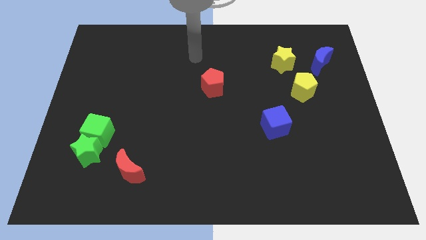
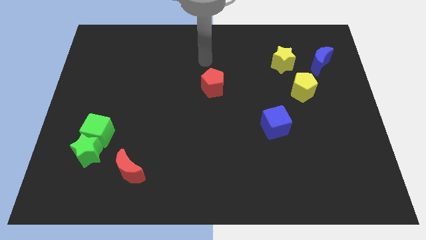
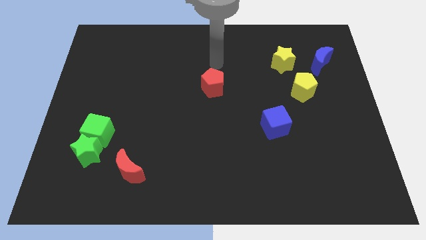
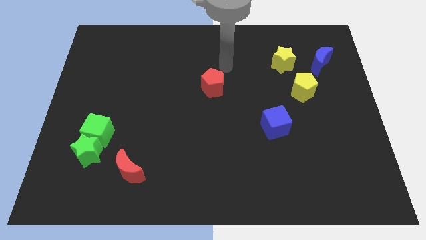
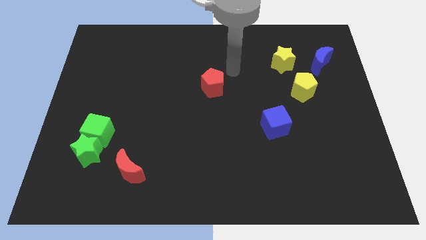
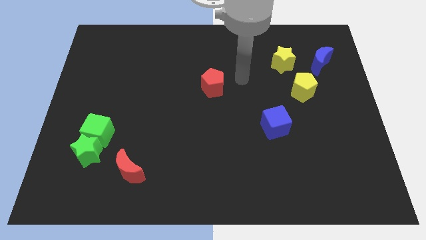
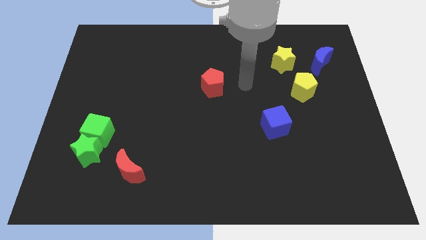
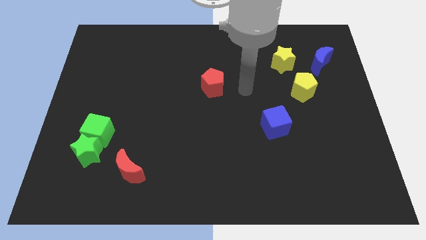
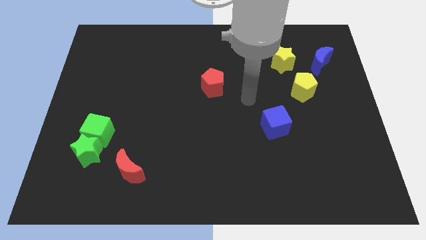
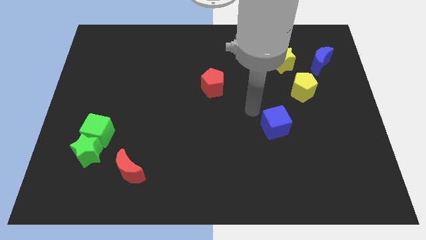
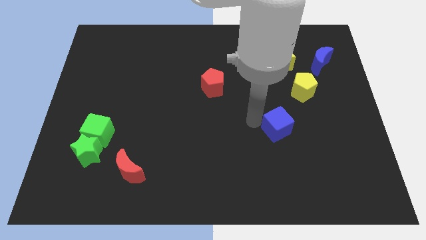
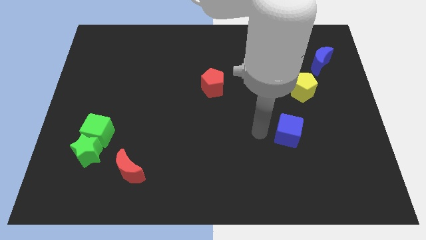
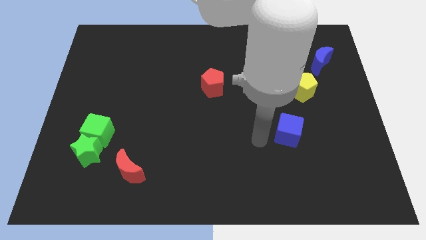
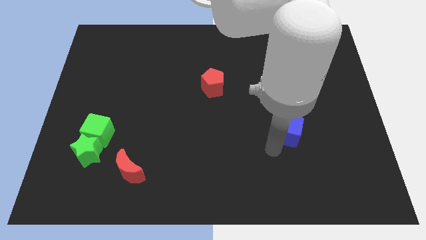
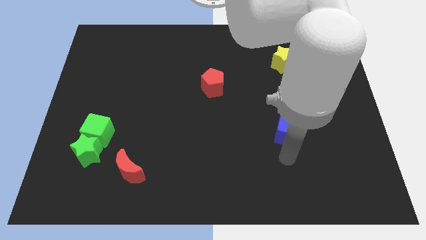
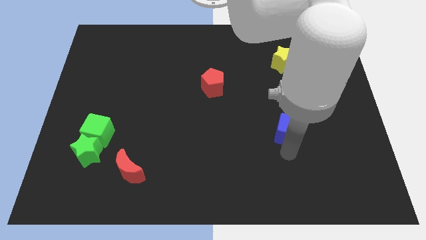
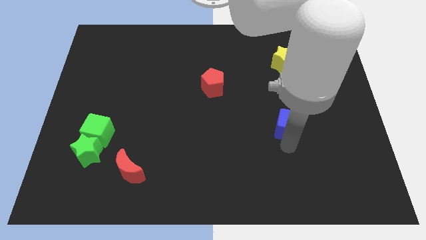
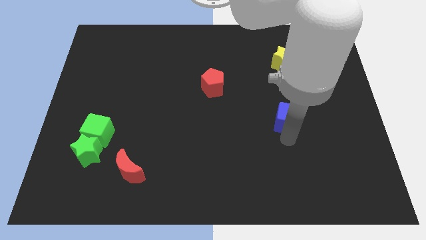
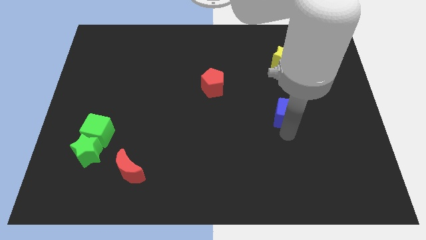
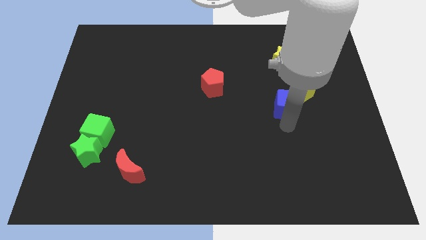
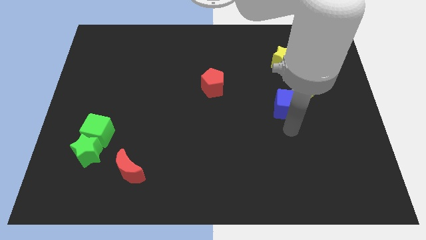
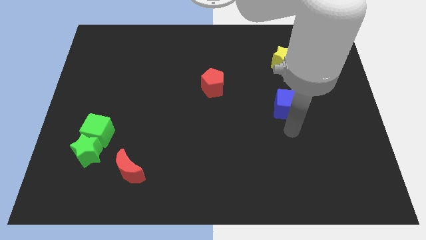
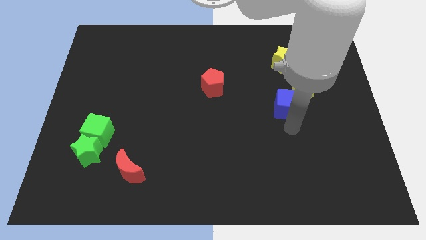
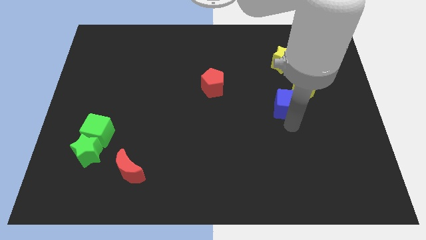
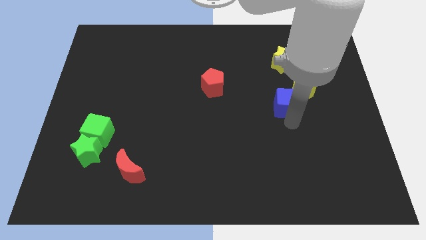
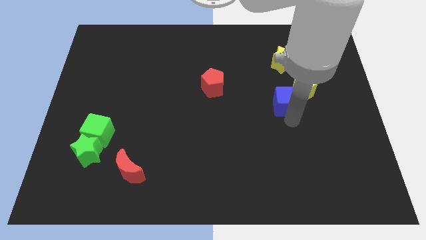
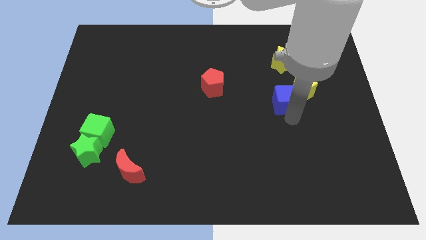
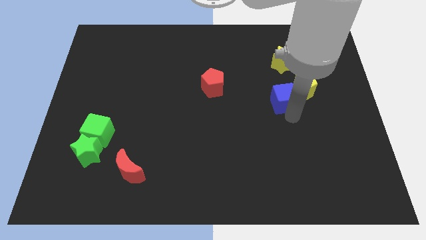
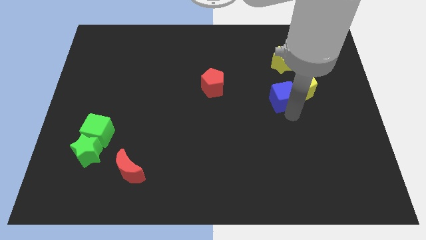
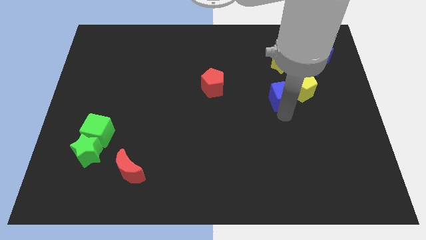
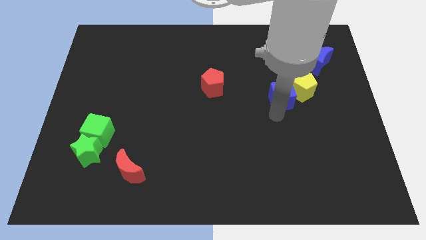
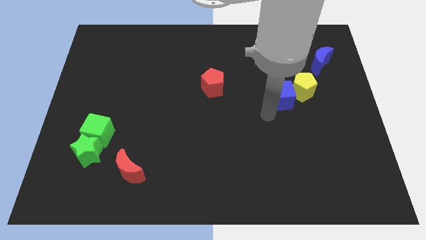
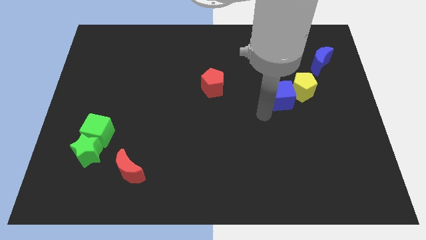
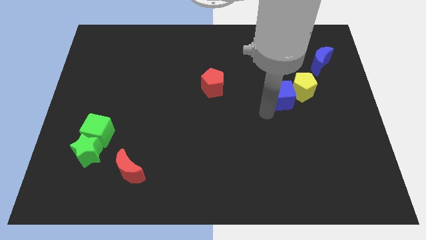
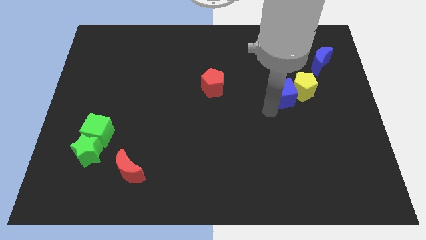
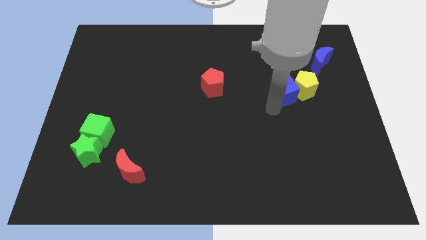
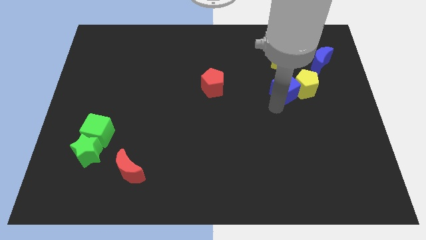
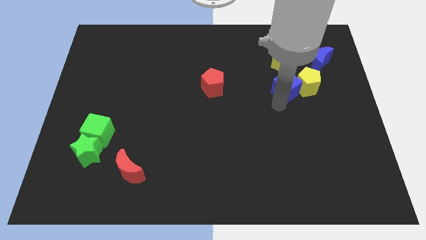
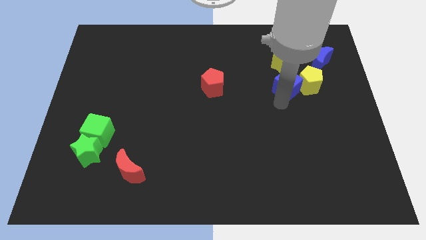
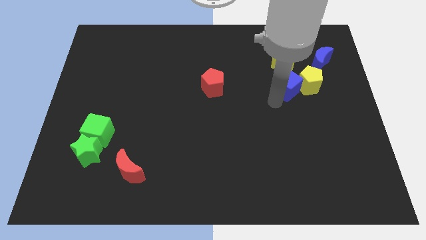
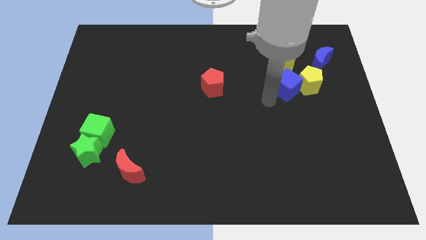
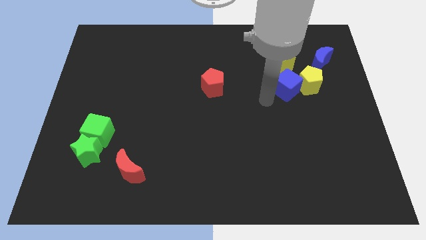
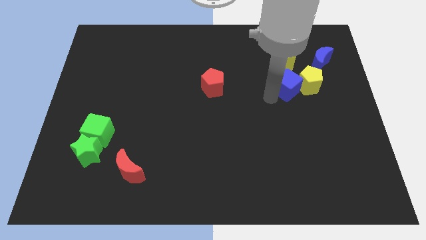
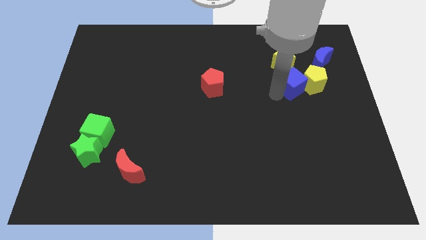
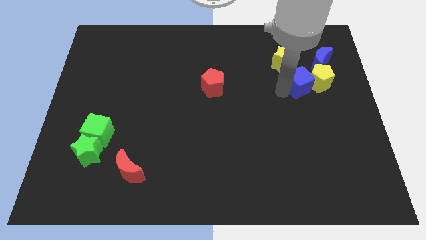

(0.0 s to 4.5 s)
move the blue cube to the bottom right of the yellow star

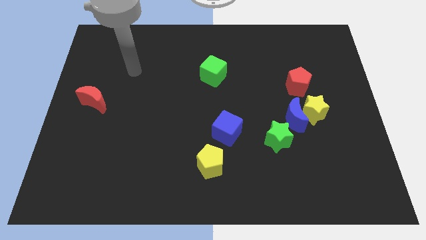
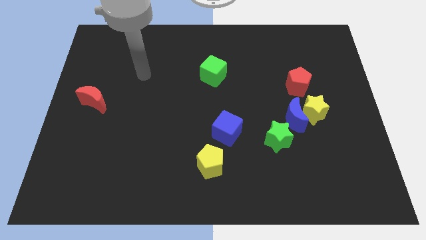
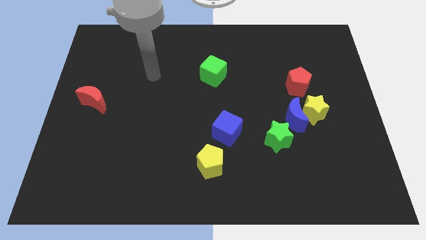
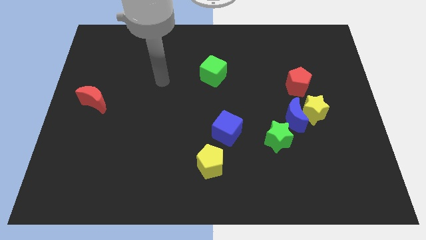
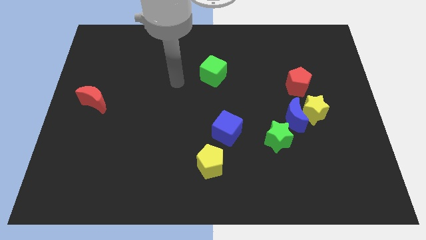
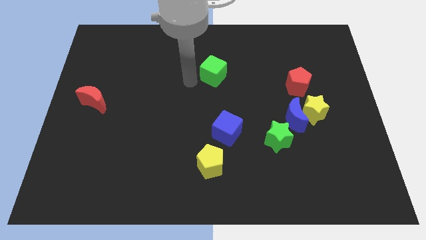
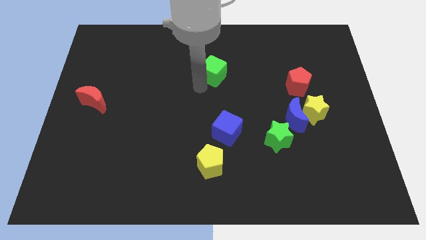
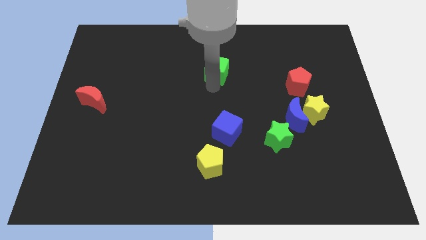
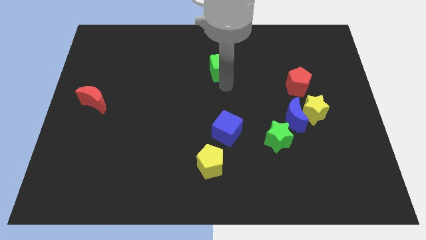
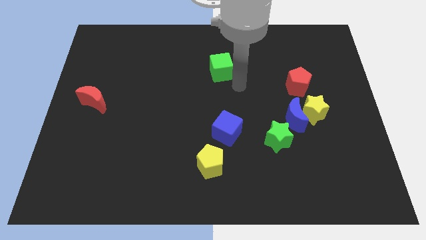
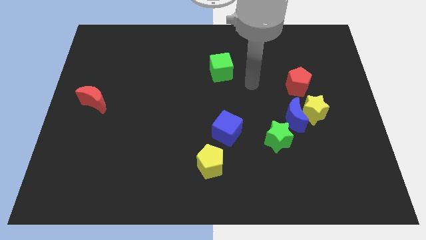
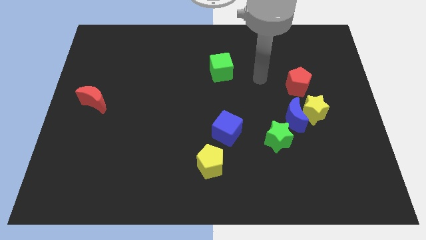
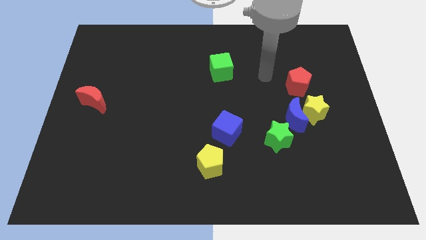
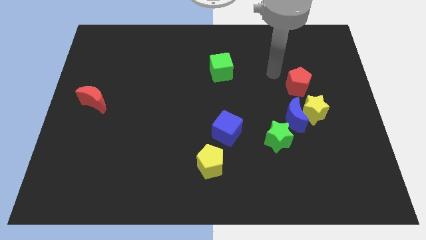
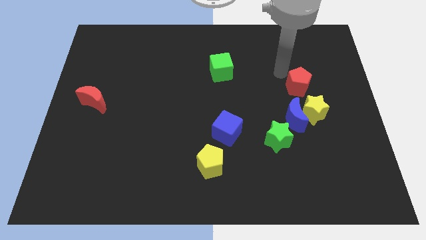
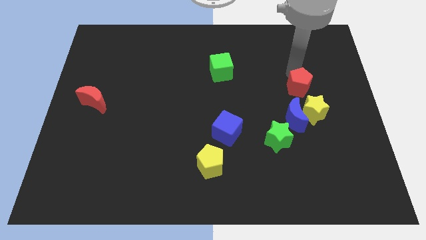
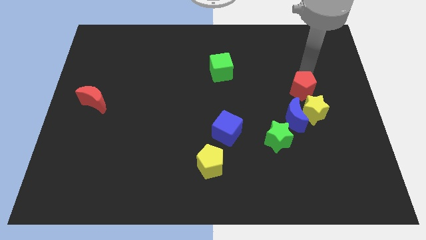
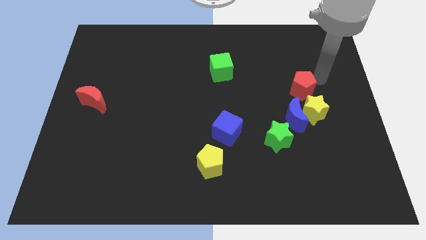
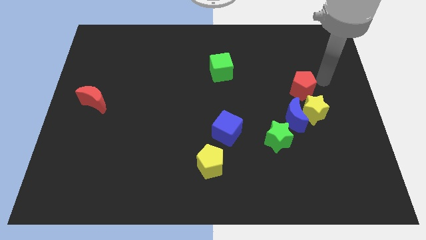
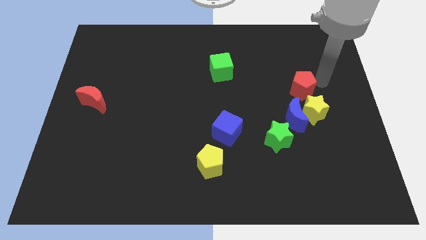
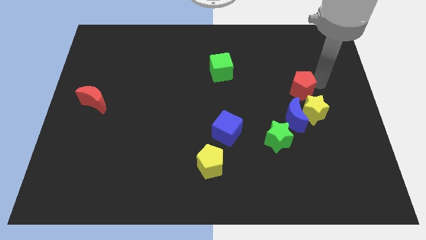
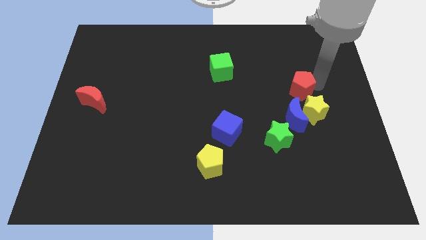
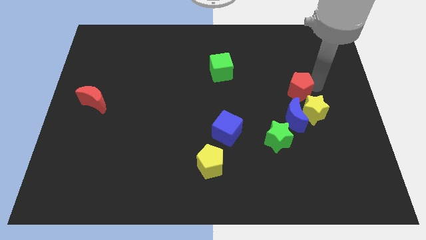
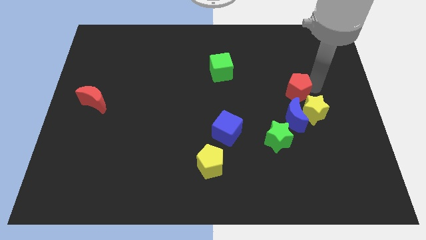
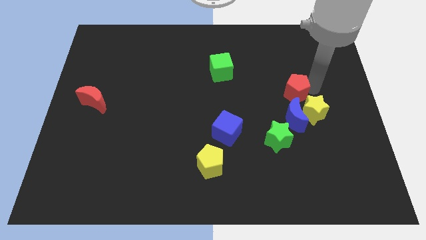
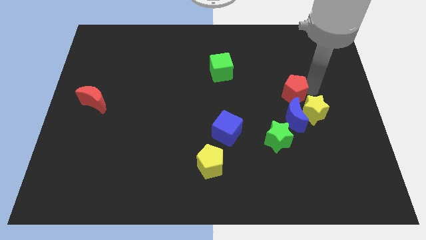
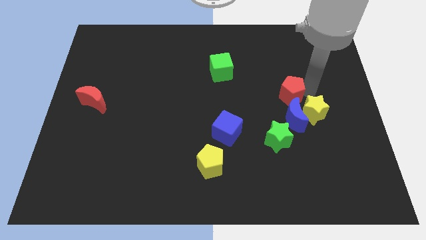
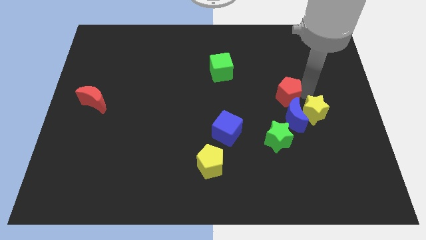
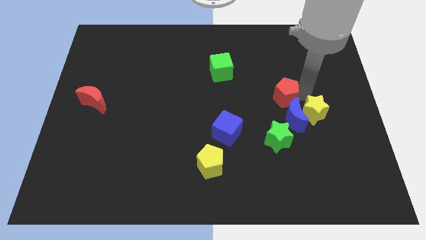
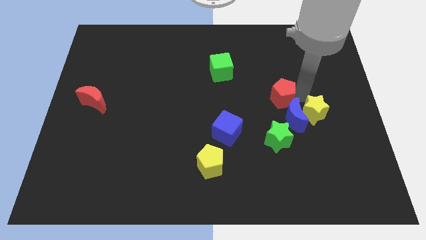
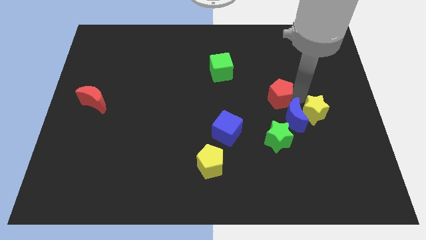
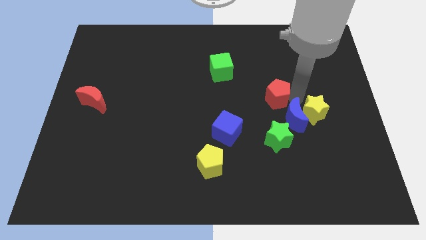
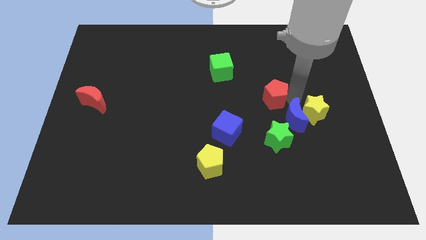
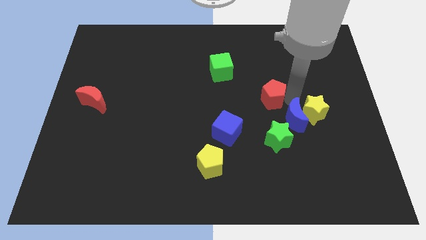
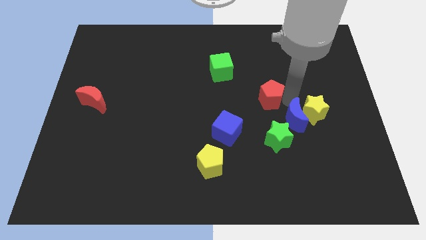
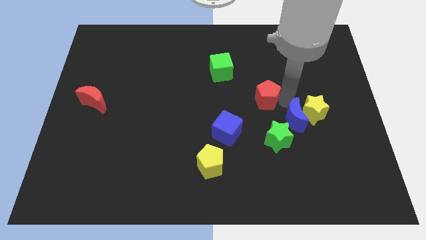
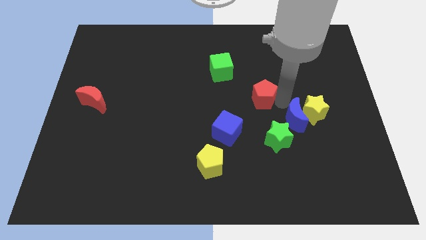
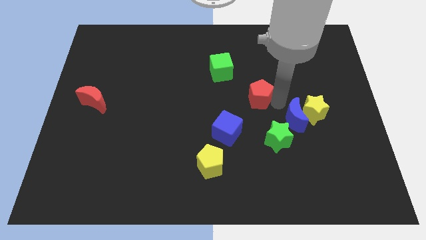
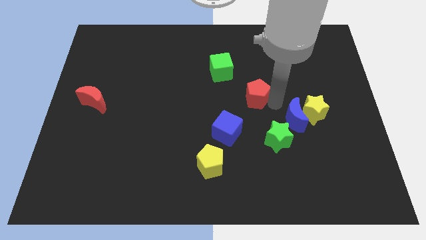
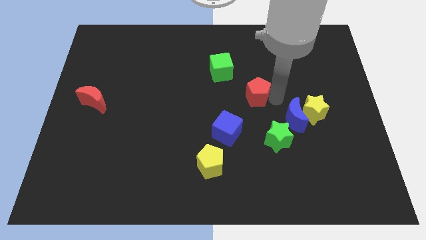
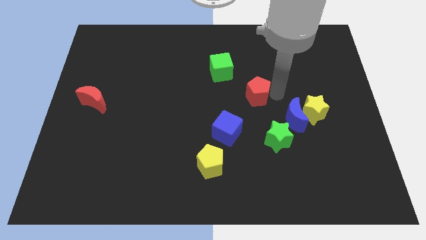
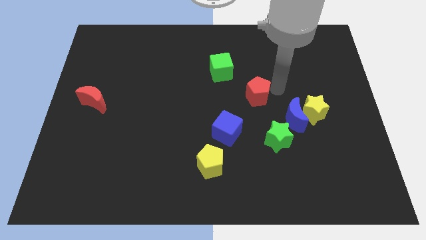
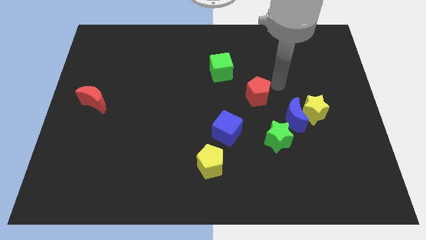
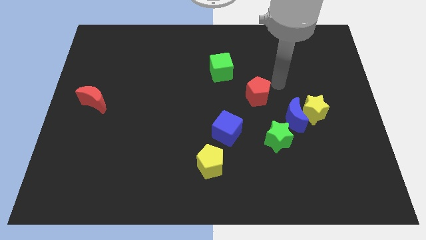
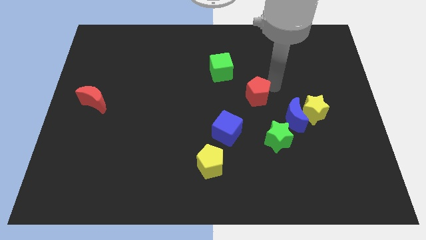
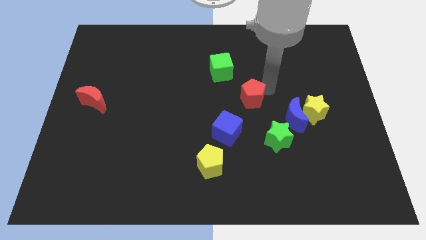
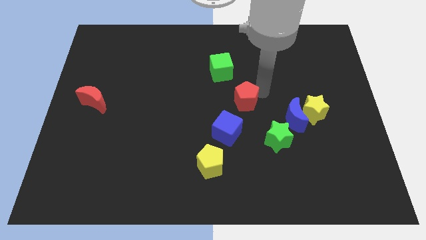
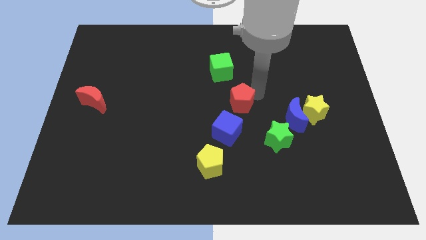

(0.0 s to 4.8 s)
push the red pentagon below the green cube
